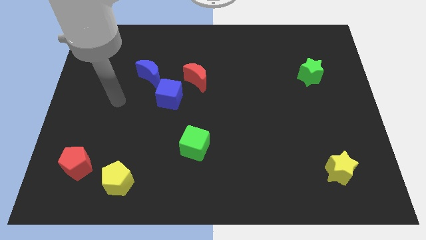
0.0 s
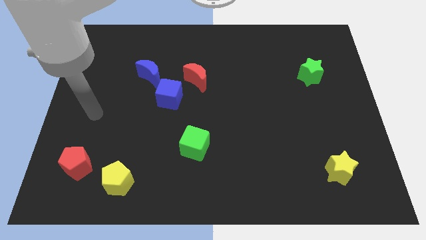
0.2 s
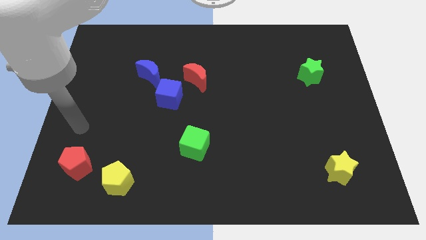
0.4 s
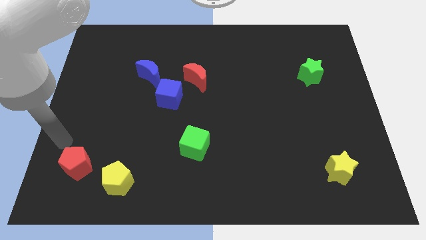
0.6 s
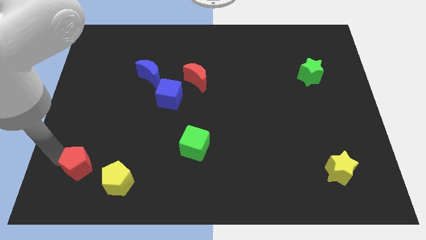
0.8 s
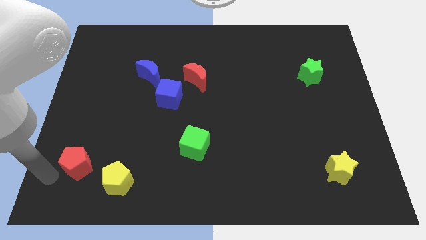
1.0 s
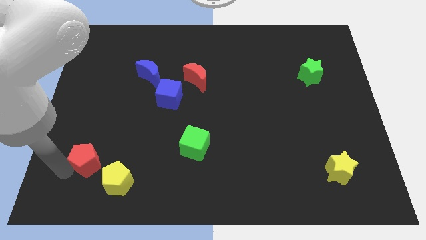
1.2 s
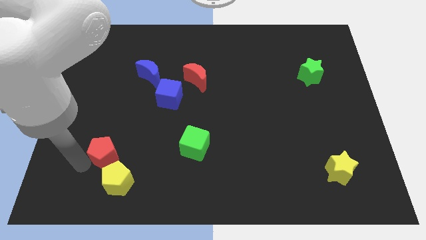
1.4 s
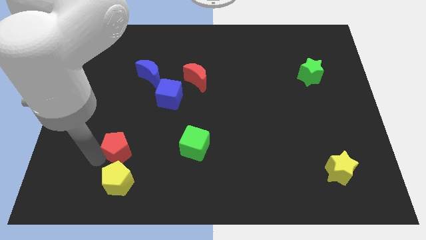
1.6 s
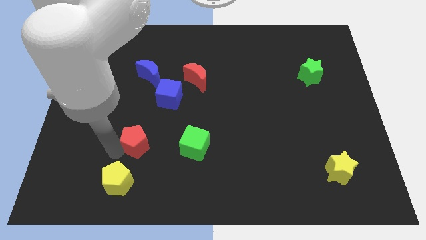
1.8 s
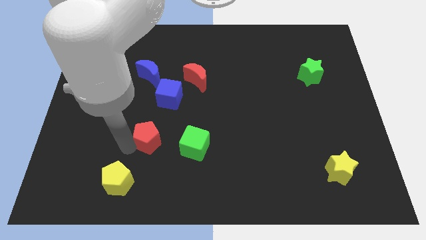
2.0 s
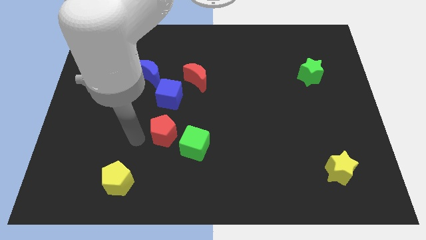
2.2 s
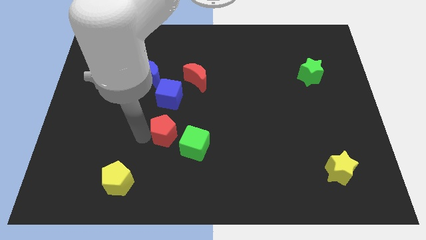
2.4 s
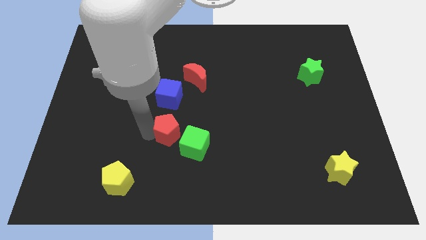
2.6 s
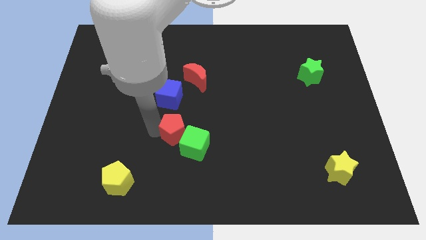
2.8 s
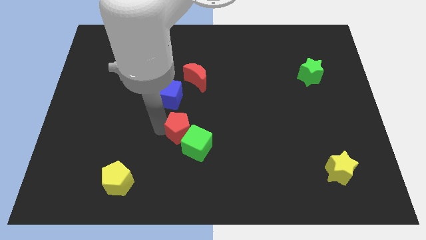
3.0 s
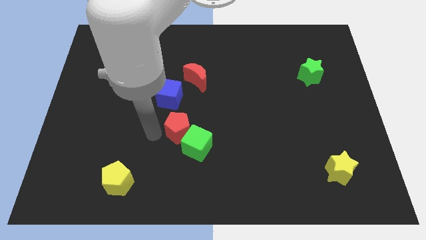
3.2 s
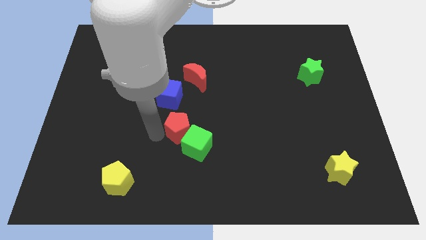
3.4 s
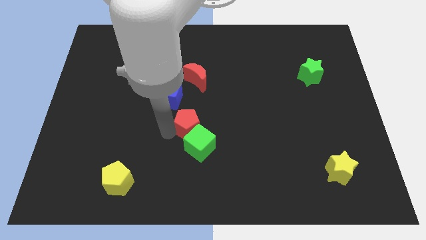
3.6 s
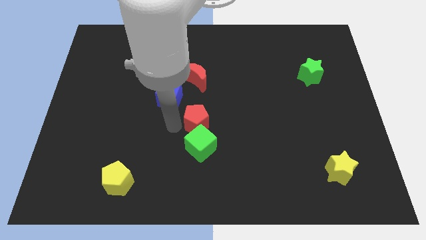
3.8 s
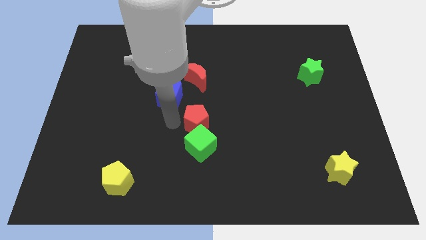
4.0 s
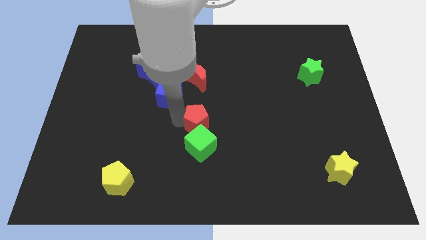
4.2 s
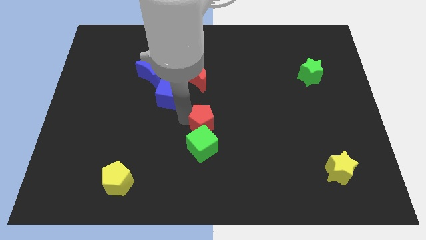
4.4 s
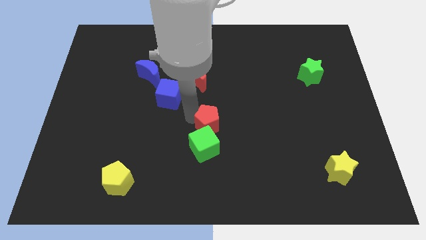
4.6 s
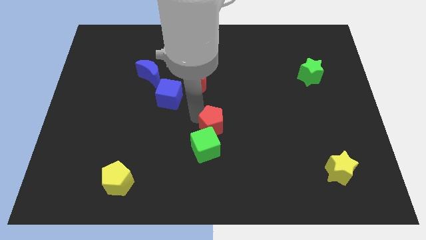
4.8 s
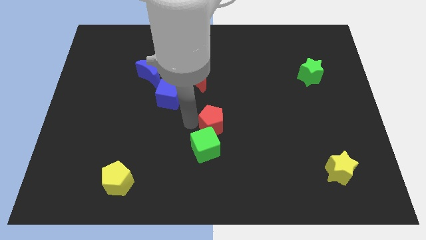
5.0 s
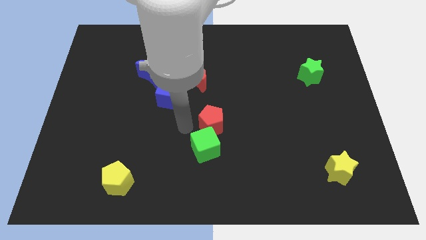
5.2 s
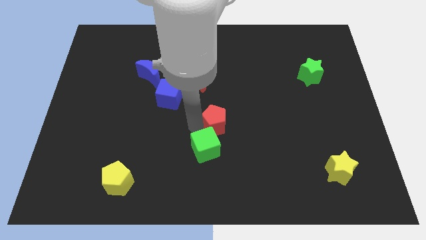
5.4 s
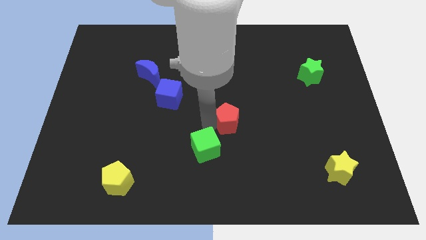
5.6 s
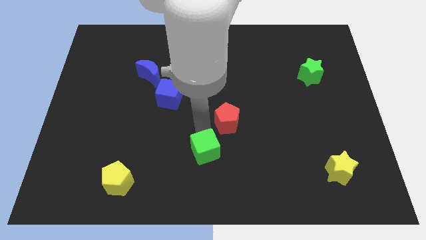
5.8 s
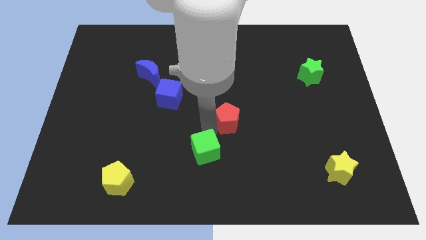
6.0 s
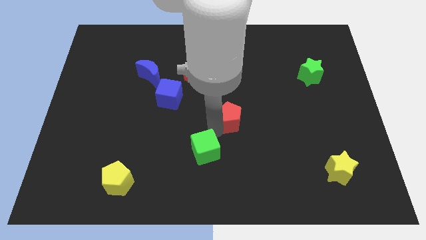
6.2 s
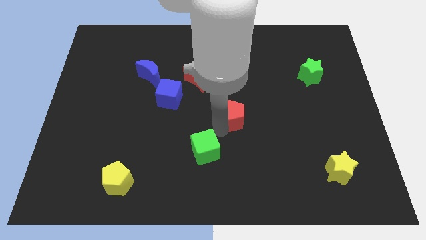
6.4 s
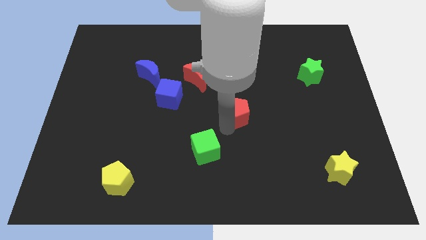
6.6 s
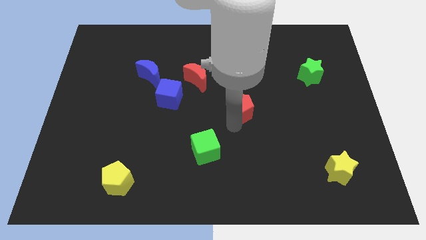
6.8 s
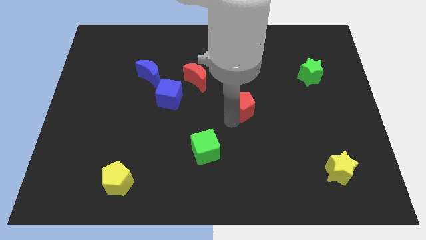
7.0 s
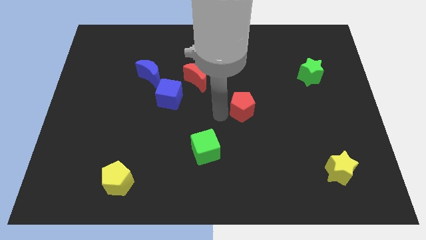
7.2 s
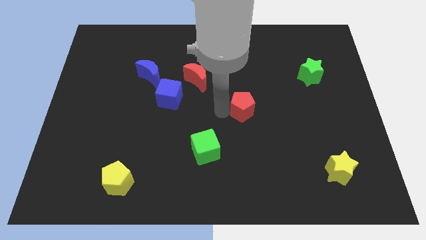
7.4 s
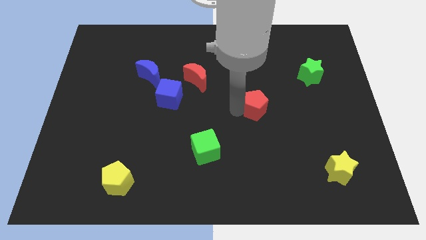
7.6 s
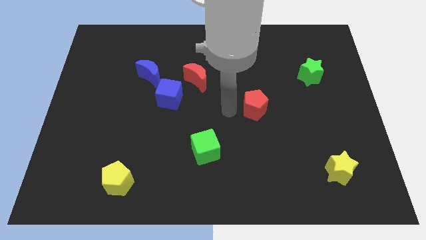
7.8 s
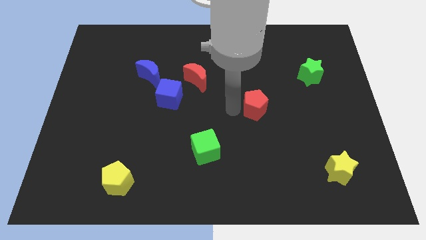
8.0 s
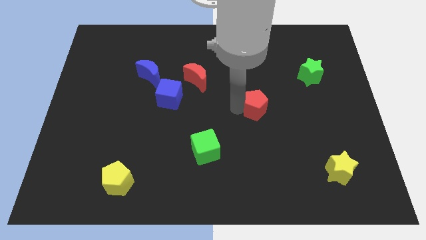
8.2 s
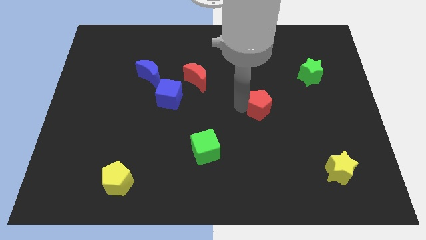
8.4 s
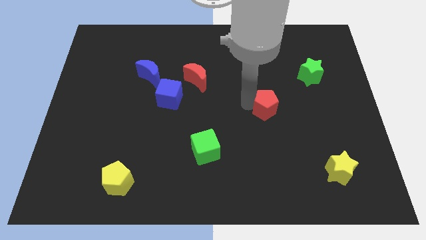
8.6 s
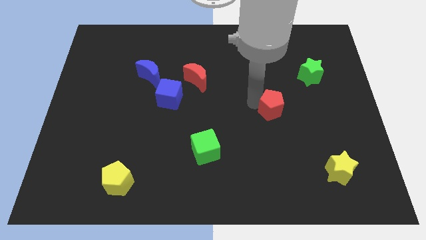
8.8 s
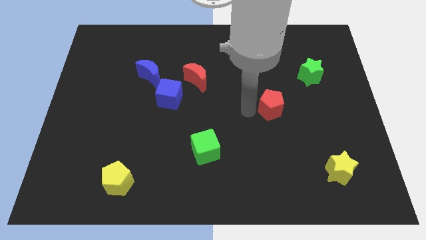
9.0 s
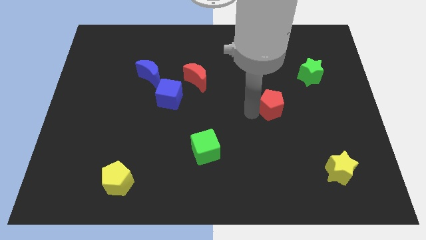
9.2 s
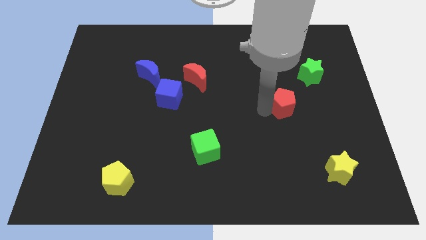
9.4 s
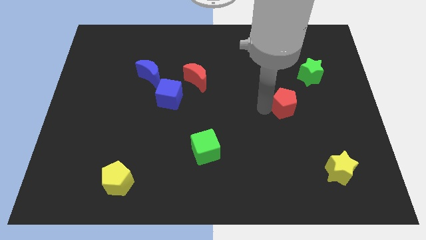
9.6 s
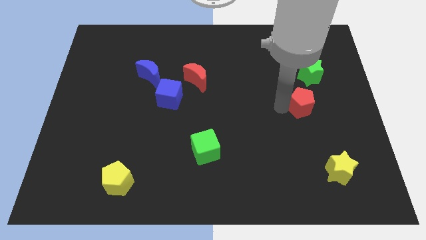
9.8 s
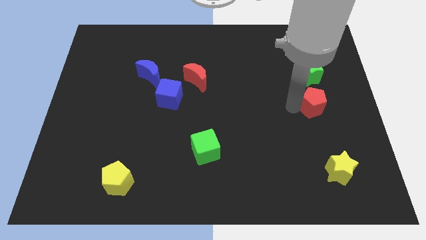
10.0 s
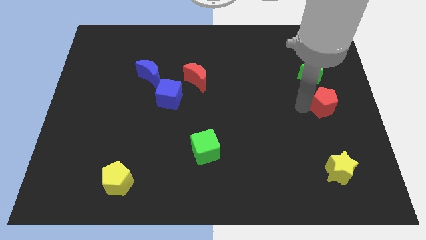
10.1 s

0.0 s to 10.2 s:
put the red pentagon to the right side

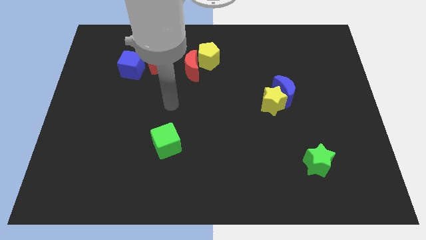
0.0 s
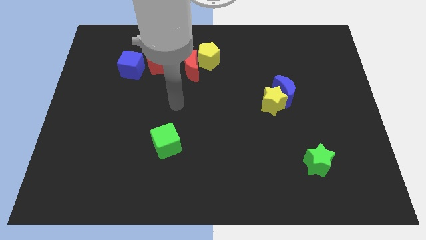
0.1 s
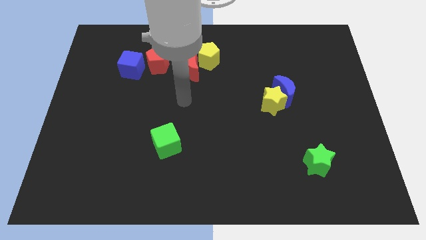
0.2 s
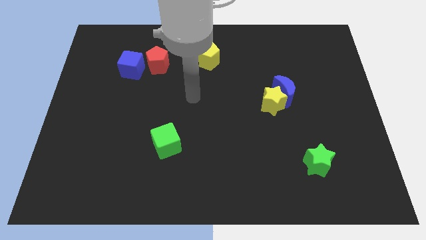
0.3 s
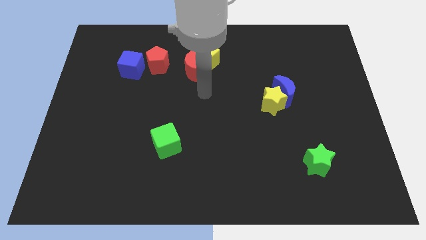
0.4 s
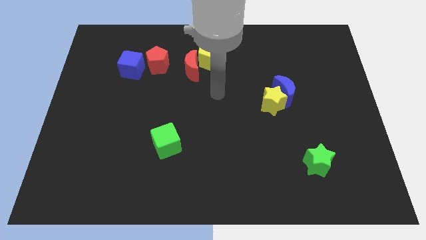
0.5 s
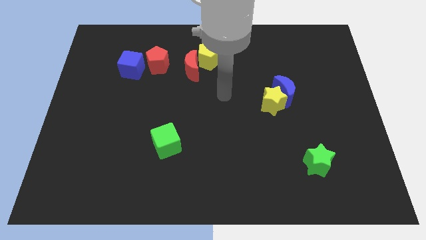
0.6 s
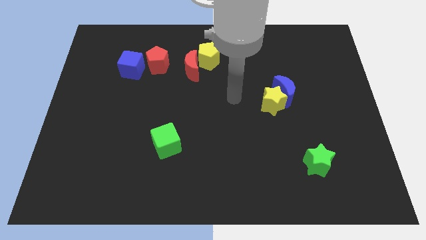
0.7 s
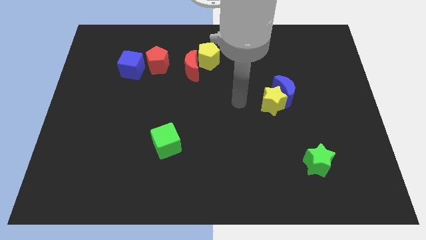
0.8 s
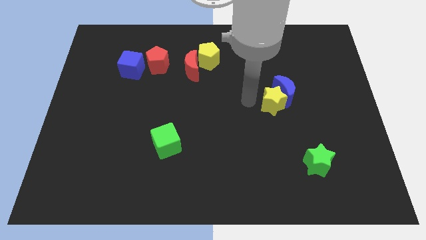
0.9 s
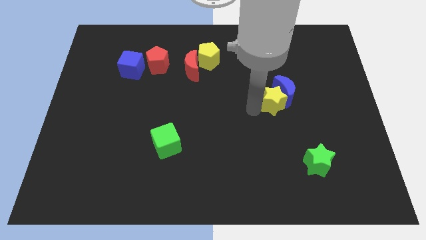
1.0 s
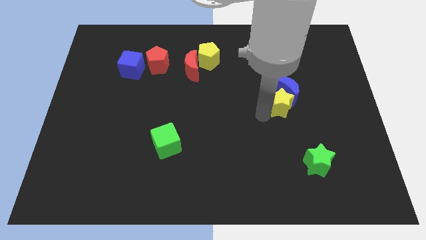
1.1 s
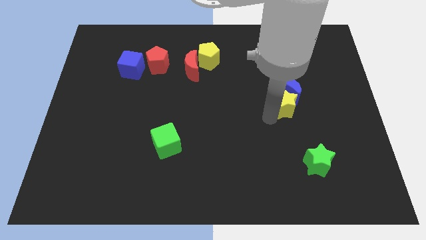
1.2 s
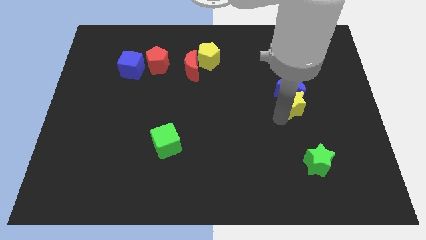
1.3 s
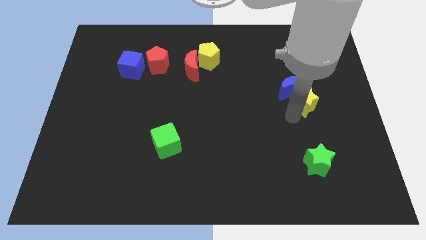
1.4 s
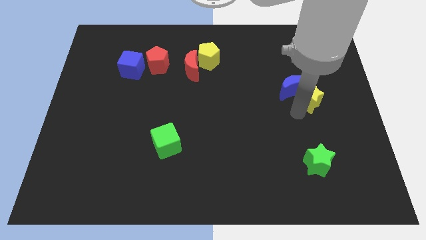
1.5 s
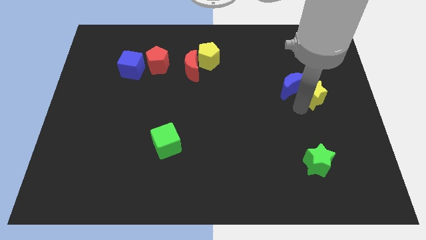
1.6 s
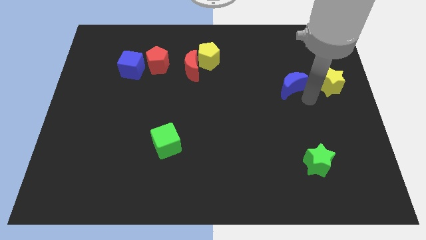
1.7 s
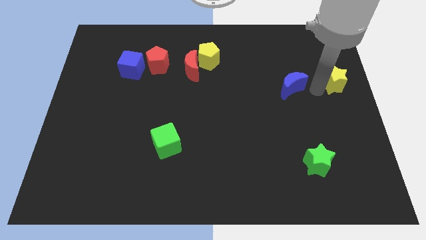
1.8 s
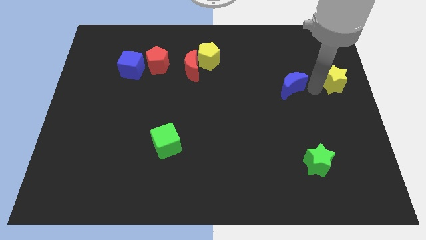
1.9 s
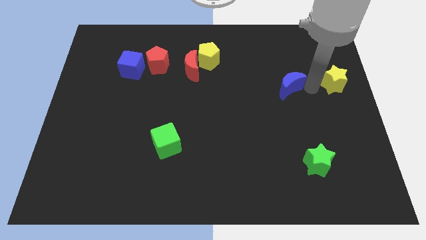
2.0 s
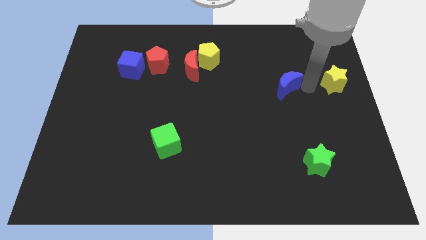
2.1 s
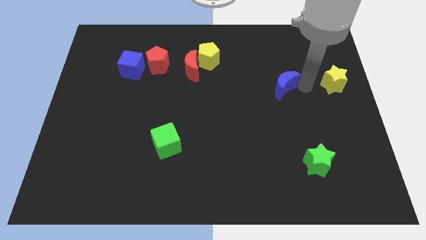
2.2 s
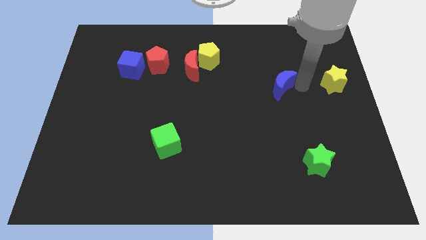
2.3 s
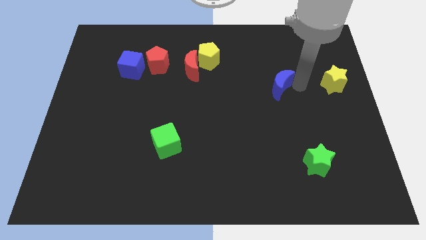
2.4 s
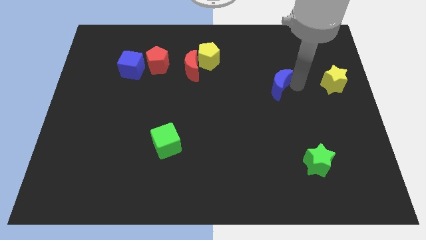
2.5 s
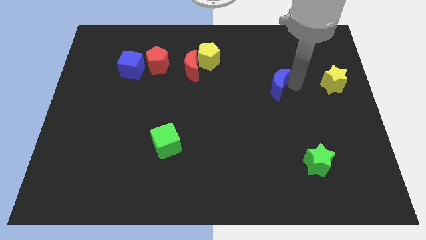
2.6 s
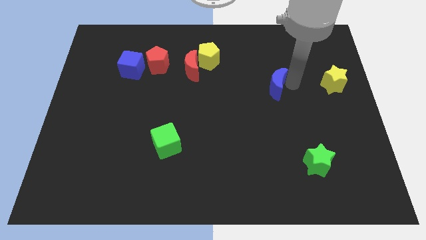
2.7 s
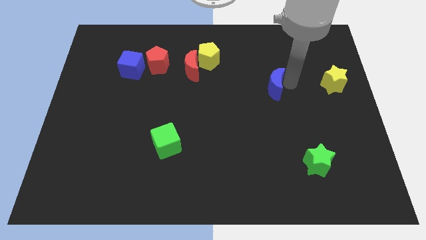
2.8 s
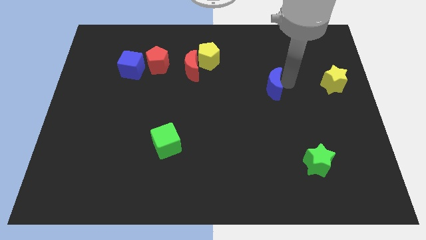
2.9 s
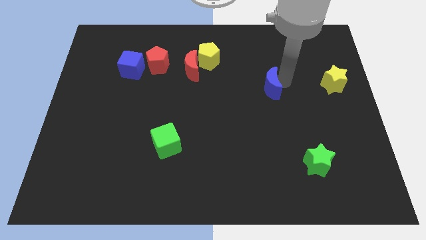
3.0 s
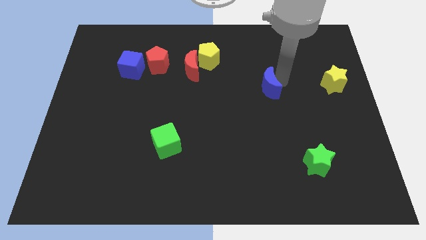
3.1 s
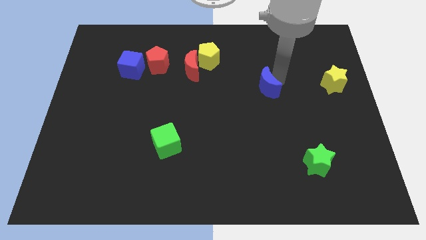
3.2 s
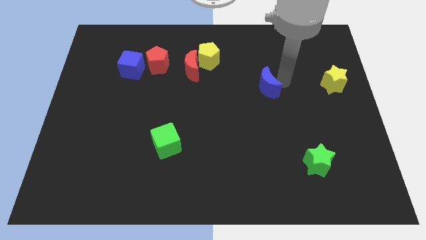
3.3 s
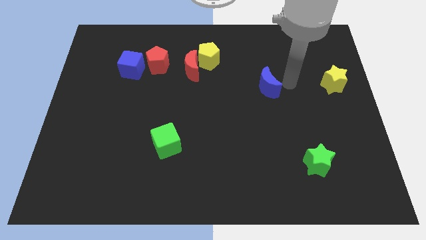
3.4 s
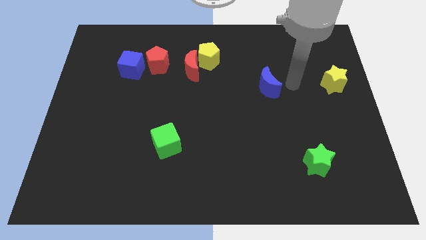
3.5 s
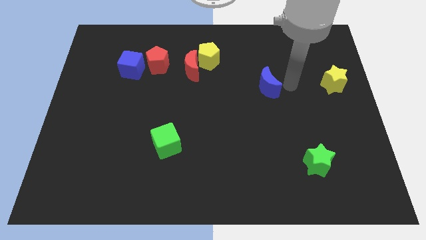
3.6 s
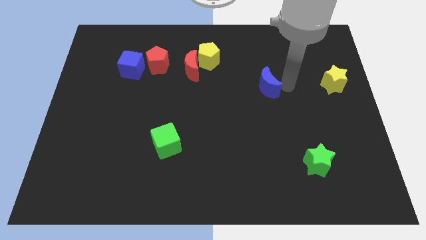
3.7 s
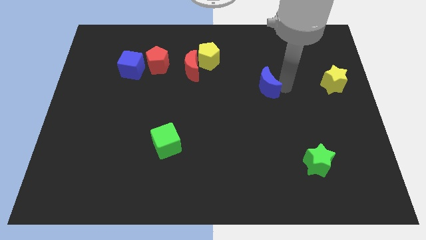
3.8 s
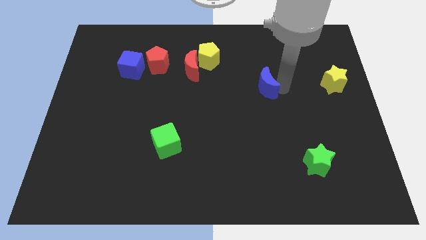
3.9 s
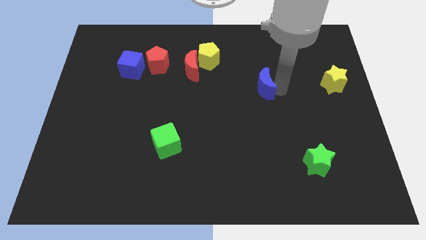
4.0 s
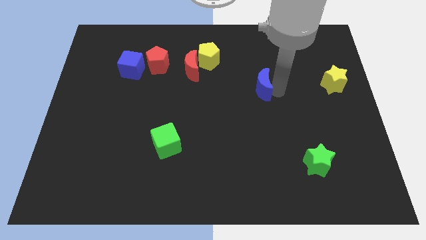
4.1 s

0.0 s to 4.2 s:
slide the blue moon to the middle
